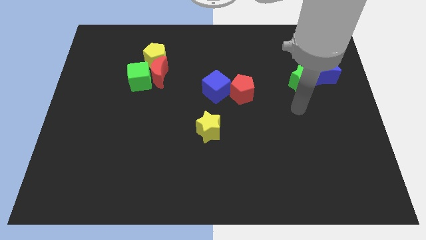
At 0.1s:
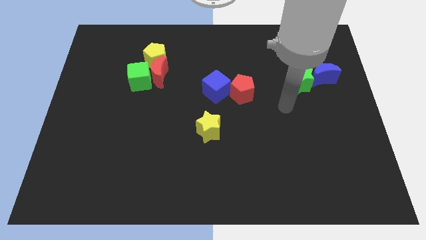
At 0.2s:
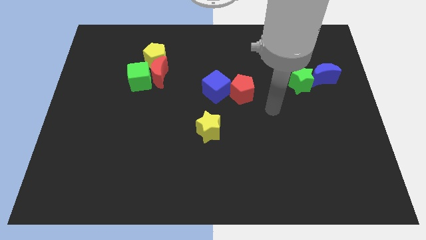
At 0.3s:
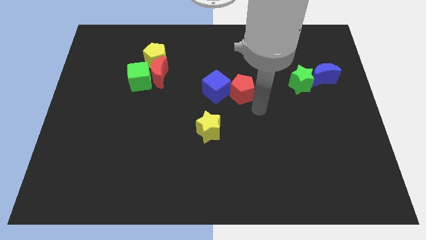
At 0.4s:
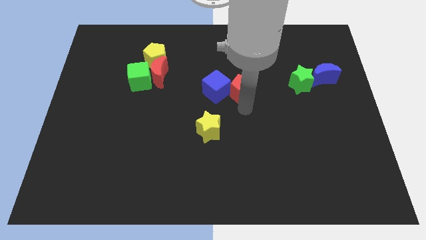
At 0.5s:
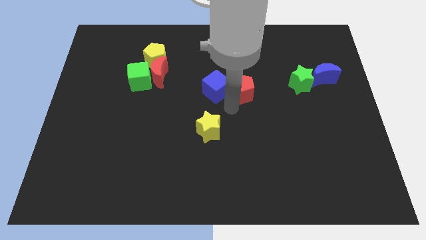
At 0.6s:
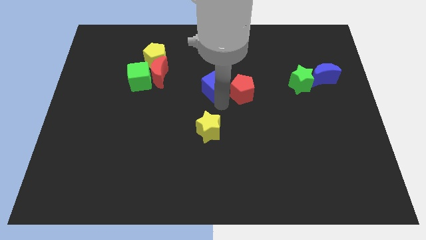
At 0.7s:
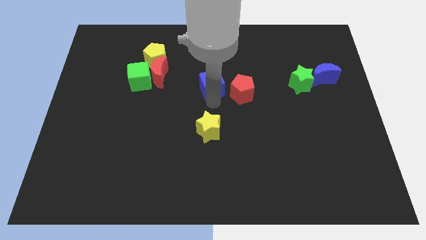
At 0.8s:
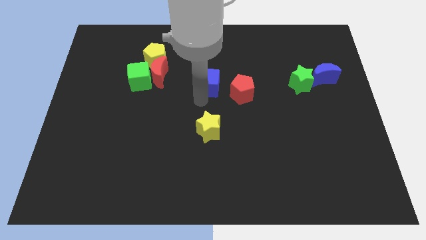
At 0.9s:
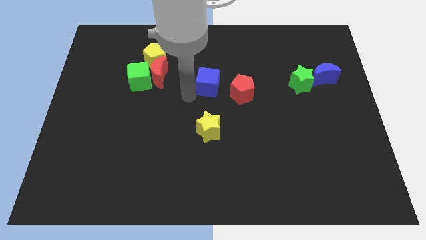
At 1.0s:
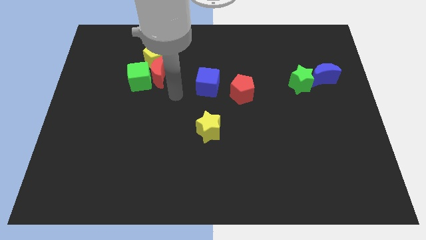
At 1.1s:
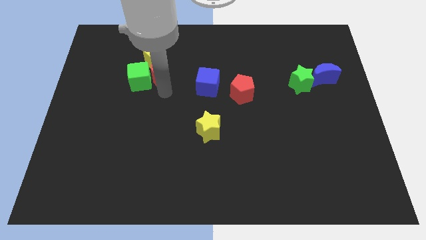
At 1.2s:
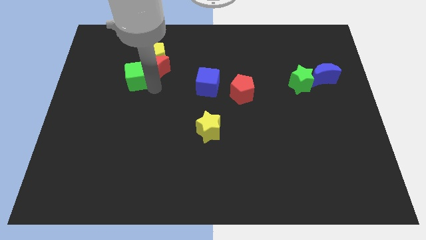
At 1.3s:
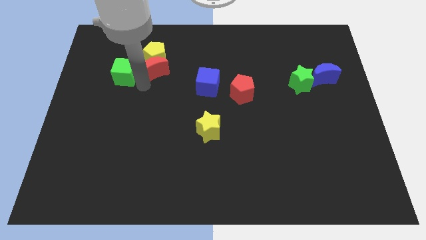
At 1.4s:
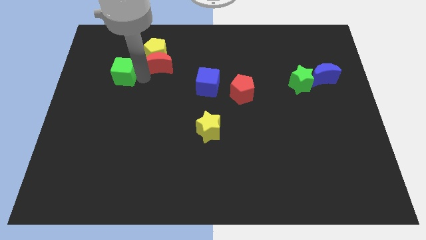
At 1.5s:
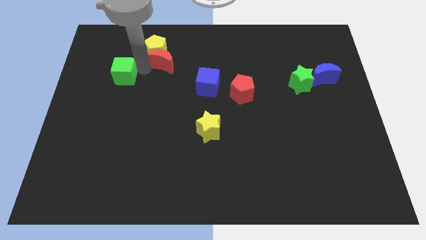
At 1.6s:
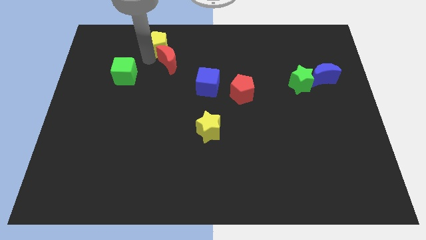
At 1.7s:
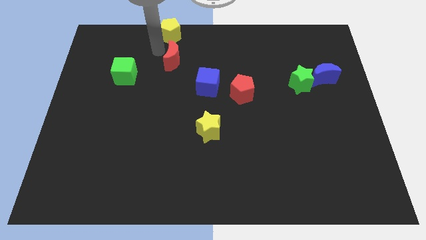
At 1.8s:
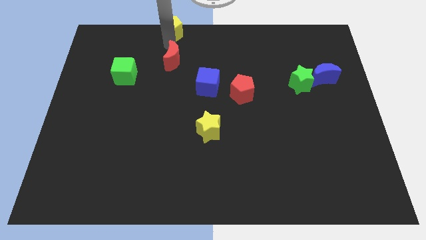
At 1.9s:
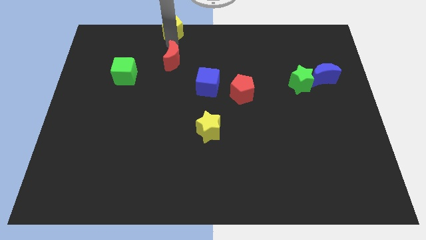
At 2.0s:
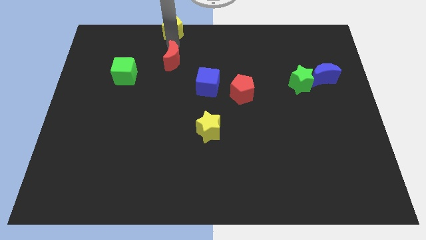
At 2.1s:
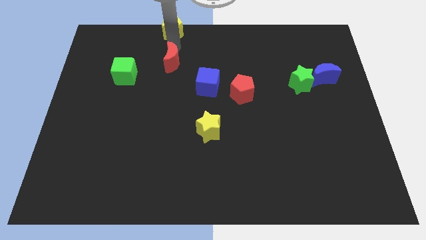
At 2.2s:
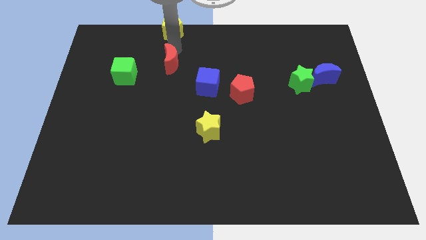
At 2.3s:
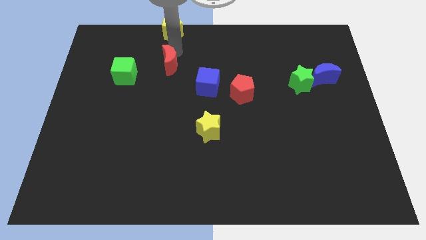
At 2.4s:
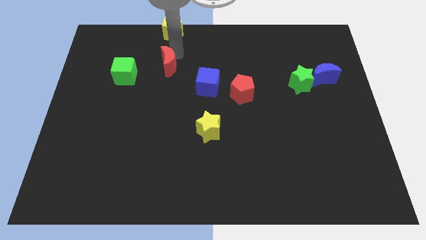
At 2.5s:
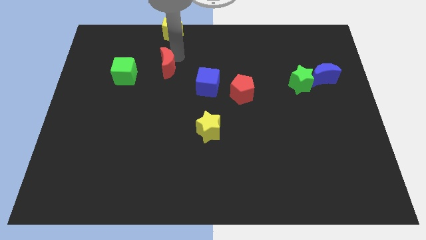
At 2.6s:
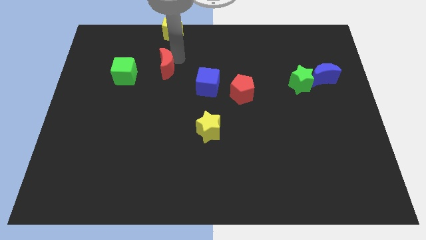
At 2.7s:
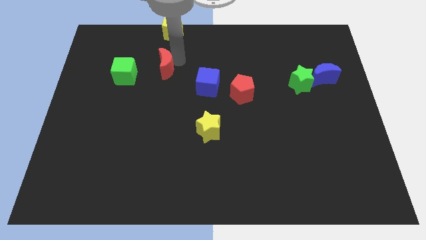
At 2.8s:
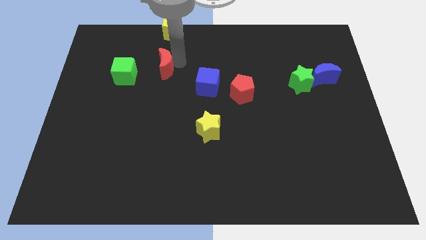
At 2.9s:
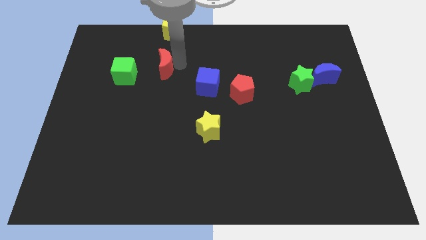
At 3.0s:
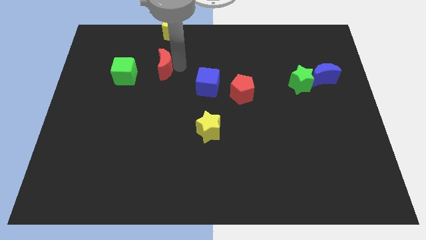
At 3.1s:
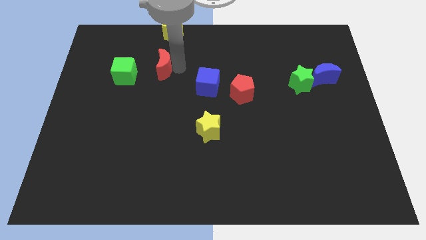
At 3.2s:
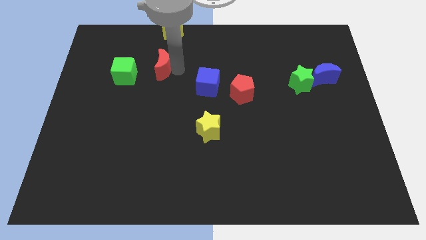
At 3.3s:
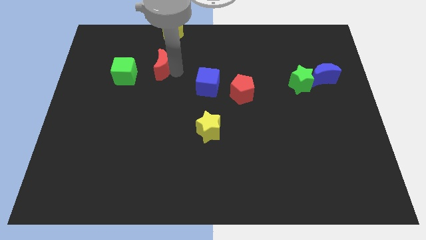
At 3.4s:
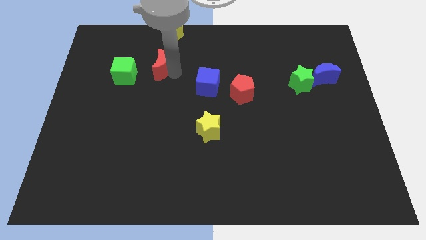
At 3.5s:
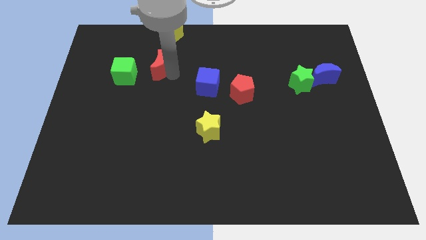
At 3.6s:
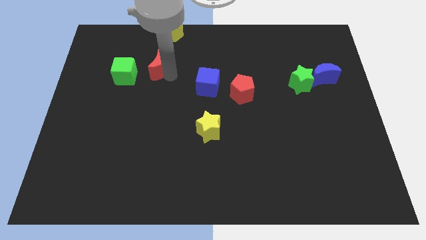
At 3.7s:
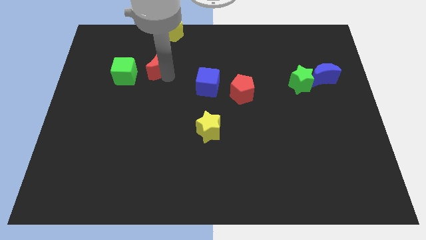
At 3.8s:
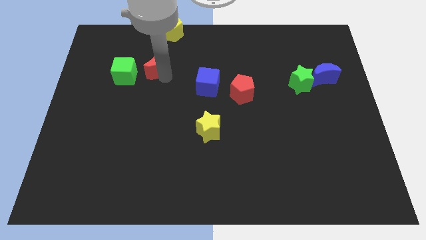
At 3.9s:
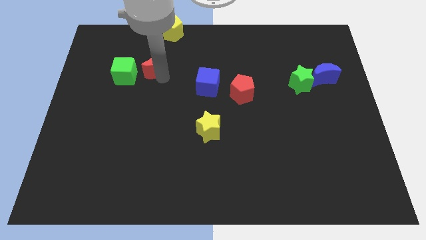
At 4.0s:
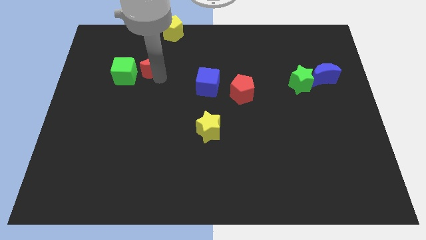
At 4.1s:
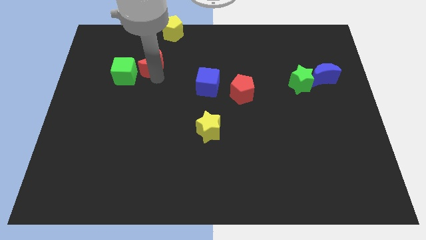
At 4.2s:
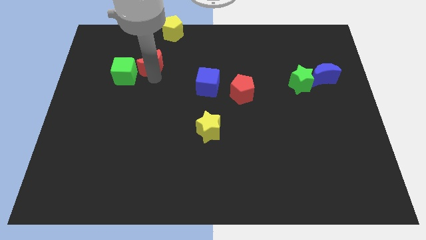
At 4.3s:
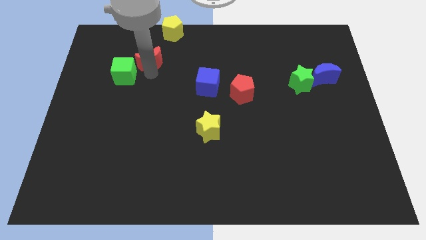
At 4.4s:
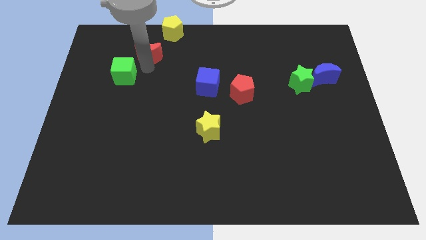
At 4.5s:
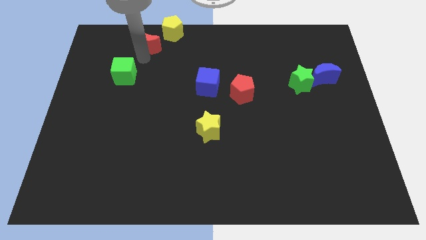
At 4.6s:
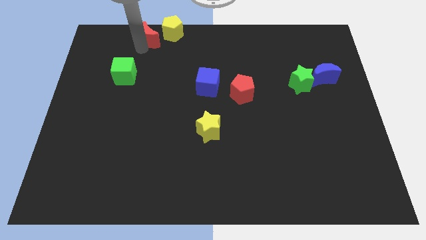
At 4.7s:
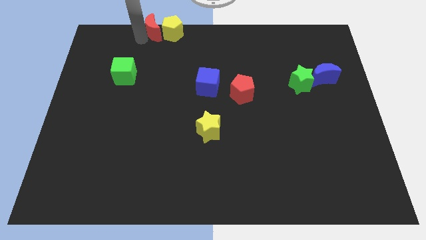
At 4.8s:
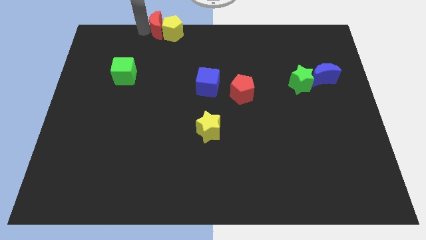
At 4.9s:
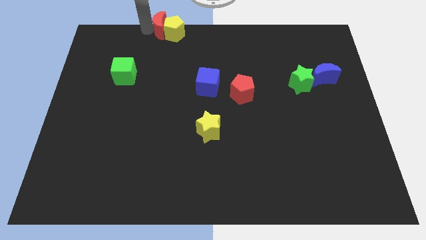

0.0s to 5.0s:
separate the red moon from the green cube and yellow pentagon

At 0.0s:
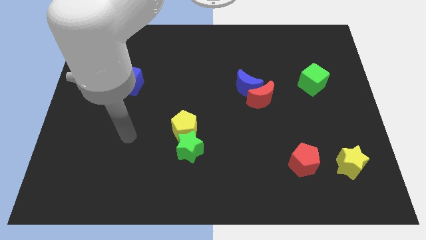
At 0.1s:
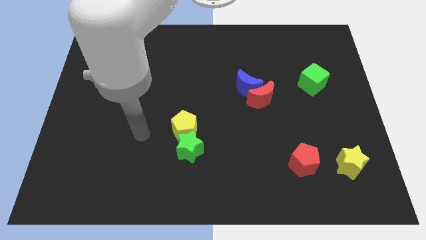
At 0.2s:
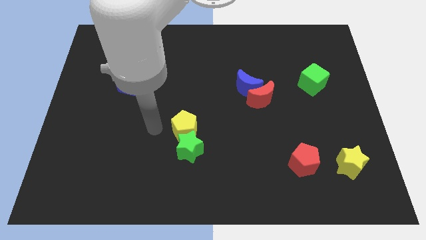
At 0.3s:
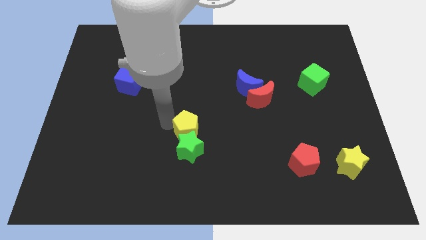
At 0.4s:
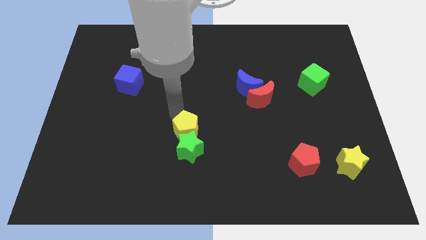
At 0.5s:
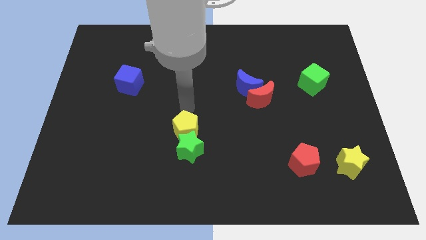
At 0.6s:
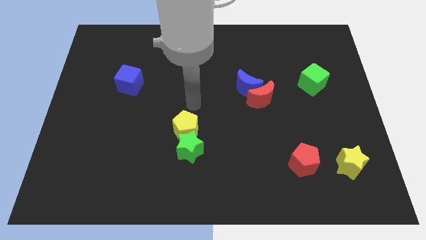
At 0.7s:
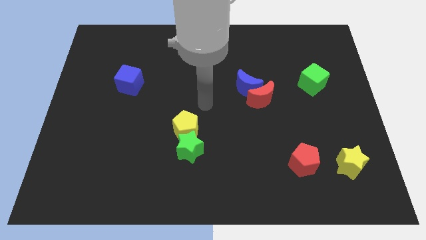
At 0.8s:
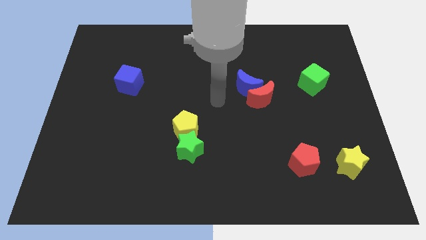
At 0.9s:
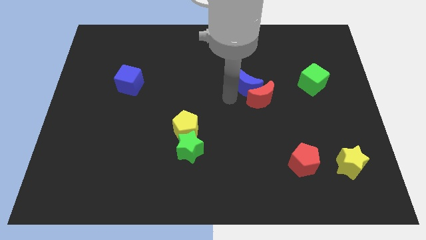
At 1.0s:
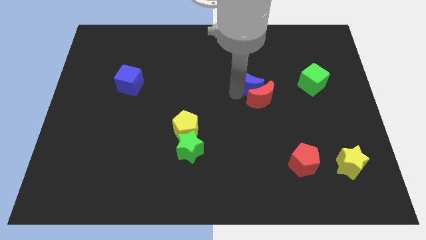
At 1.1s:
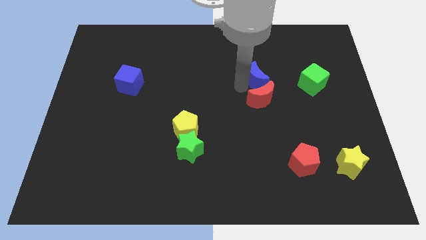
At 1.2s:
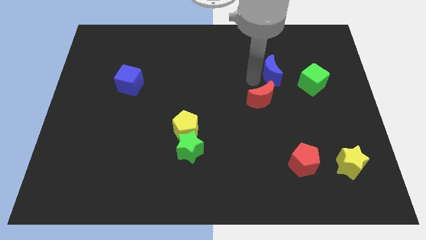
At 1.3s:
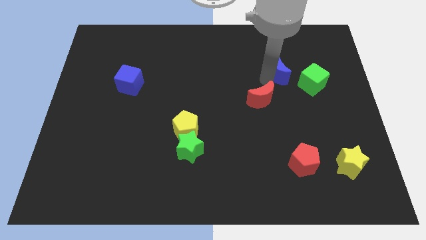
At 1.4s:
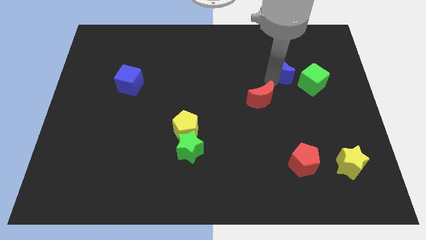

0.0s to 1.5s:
separate the red moon from the blue moon

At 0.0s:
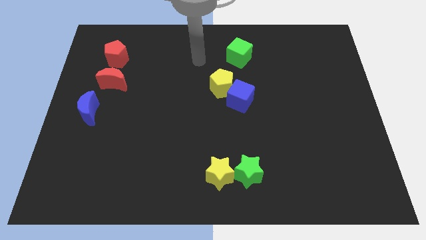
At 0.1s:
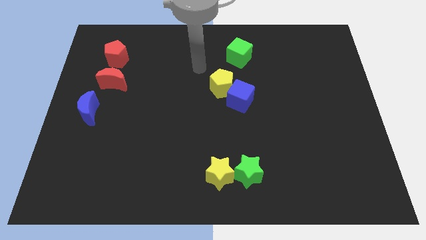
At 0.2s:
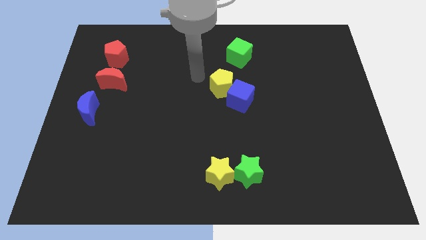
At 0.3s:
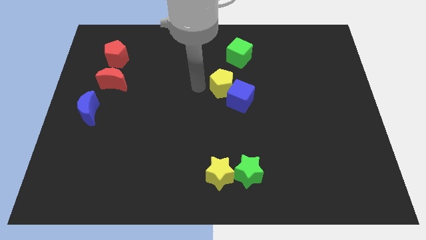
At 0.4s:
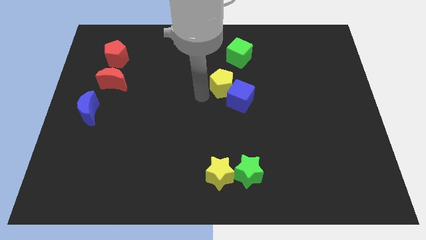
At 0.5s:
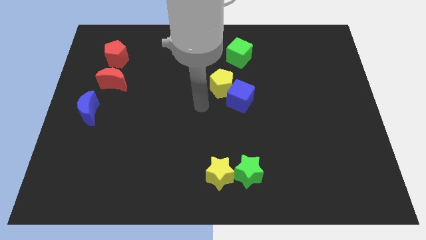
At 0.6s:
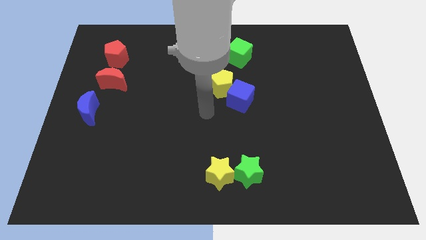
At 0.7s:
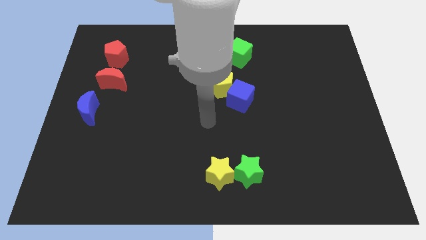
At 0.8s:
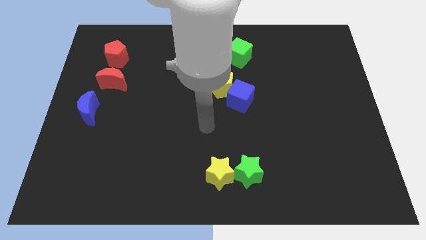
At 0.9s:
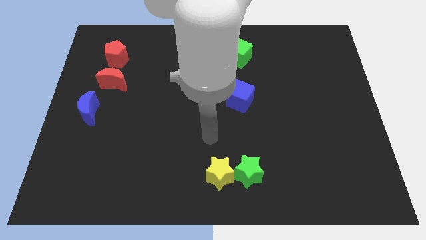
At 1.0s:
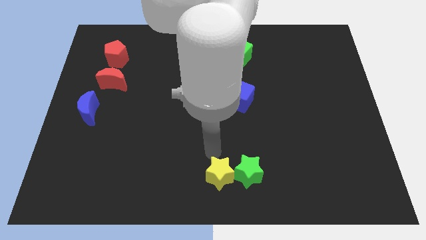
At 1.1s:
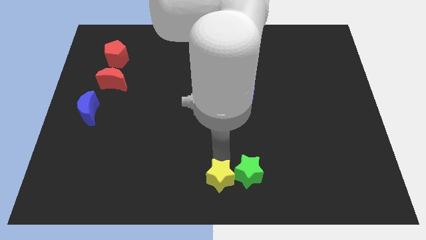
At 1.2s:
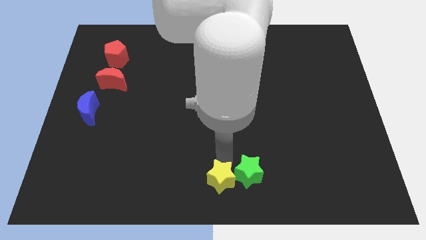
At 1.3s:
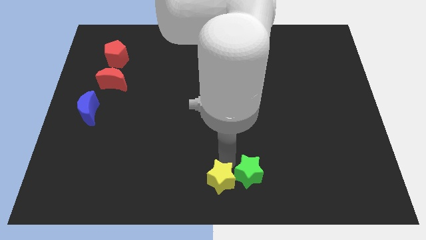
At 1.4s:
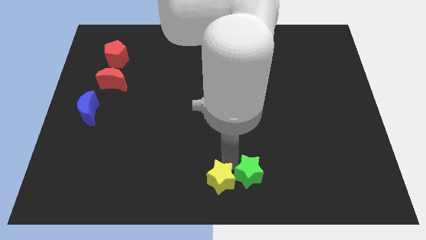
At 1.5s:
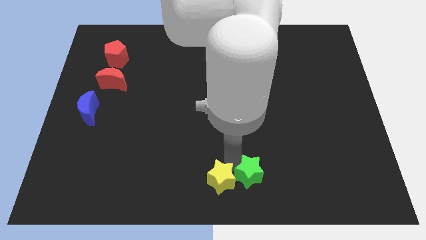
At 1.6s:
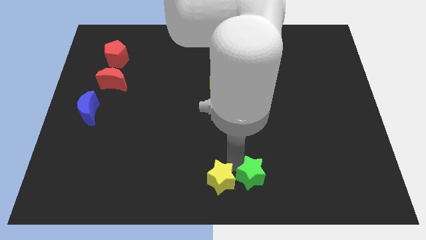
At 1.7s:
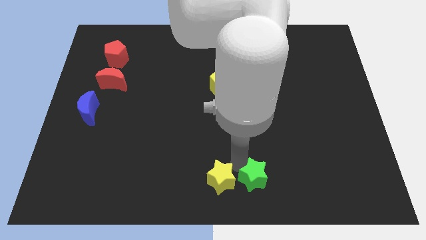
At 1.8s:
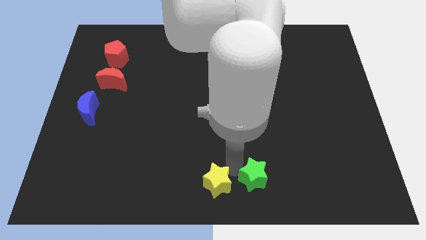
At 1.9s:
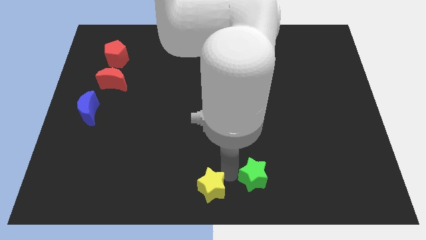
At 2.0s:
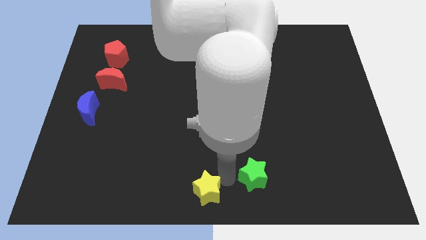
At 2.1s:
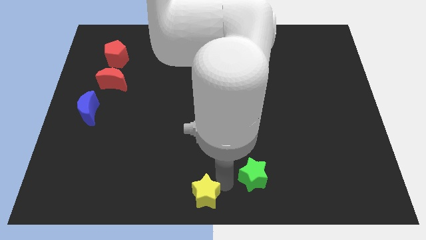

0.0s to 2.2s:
separate the green star from the yellow star

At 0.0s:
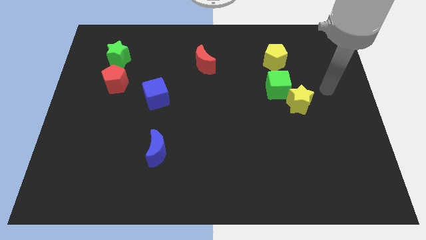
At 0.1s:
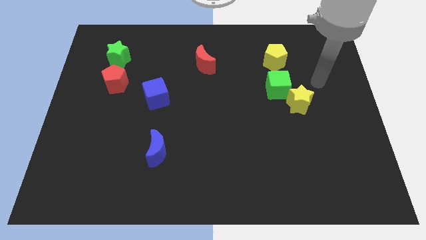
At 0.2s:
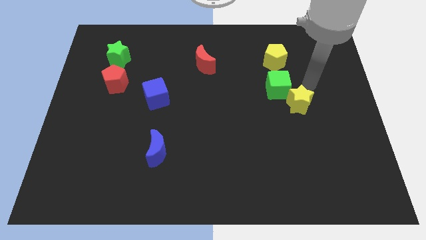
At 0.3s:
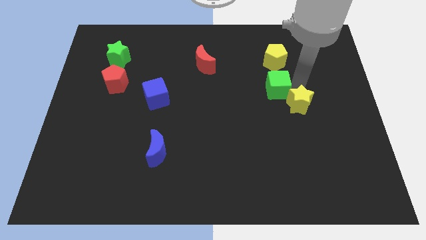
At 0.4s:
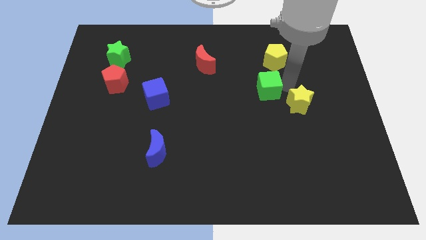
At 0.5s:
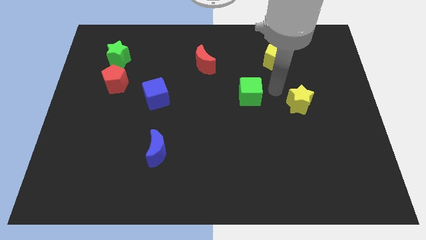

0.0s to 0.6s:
move the yellow star away from the green cube
